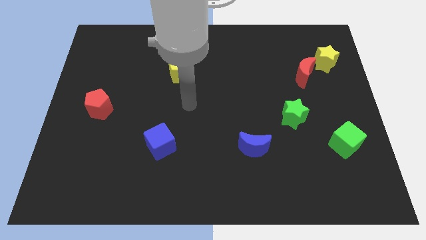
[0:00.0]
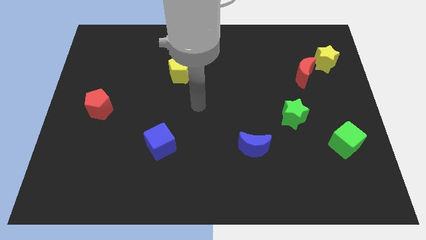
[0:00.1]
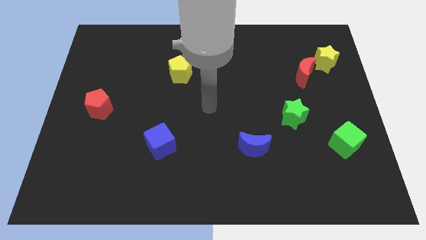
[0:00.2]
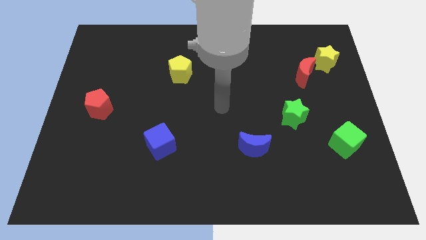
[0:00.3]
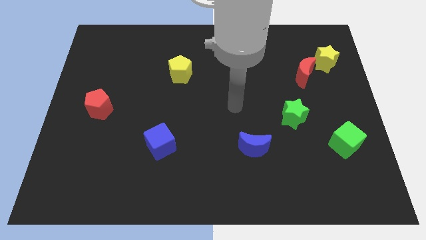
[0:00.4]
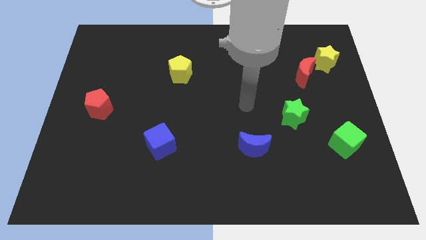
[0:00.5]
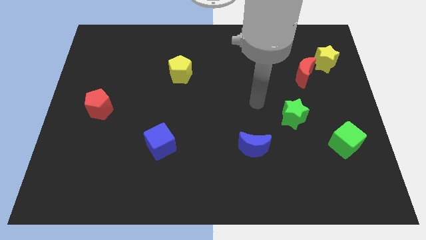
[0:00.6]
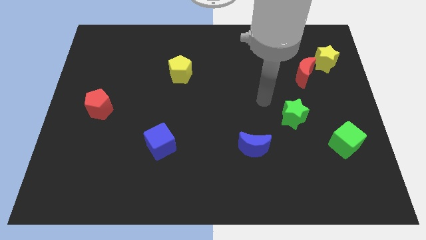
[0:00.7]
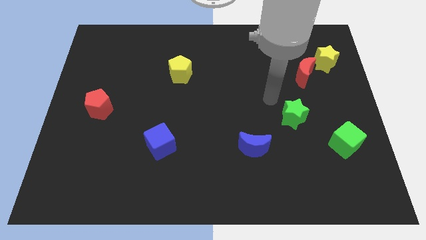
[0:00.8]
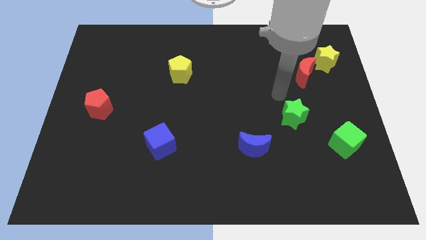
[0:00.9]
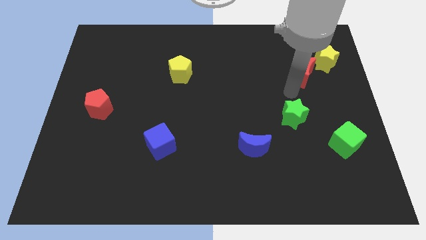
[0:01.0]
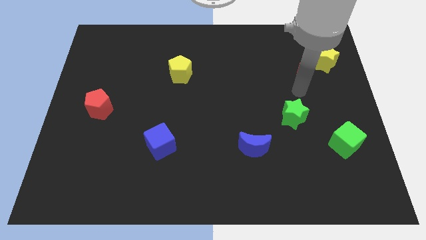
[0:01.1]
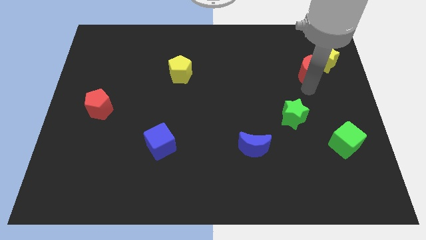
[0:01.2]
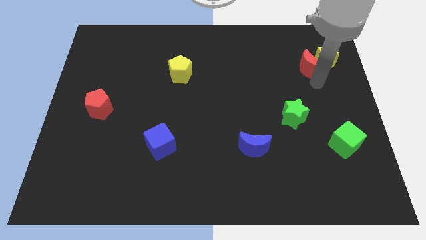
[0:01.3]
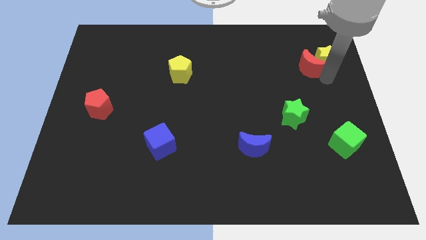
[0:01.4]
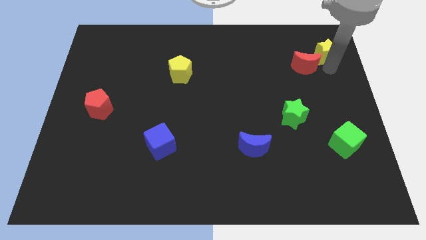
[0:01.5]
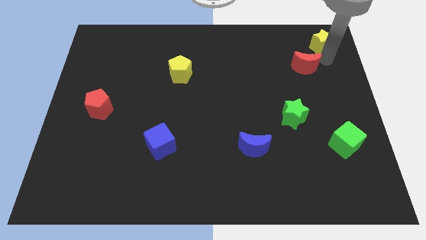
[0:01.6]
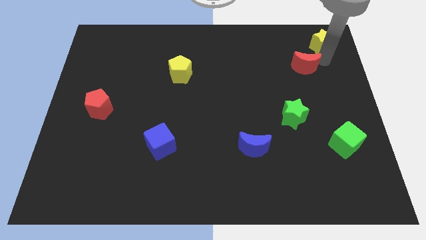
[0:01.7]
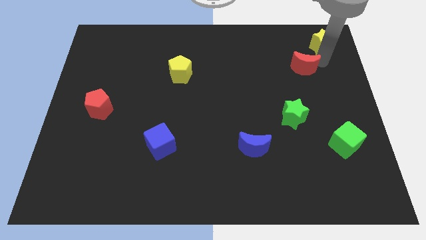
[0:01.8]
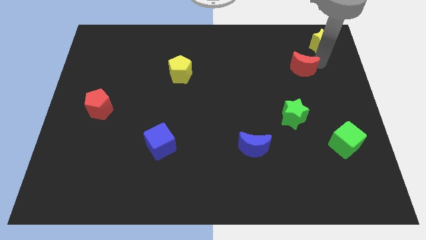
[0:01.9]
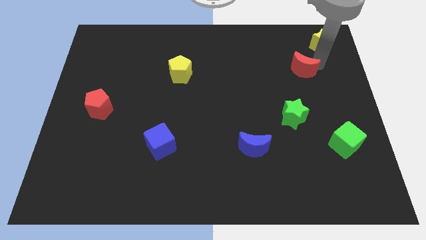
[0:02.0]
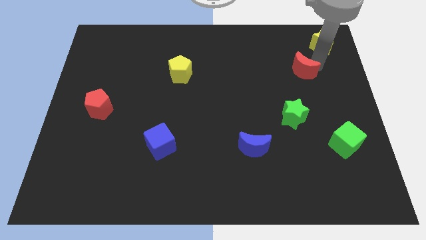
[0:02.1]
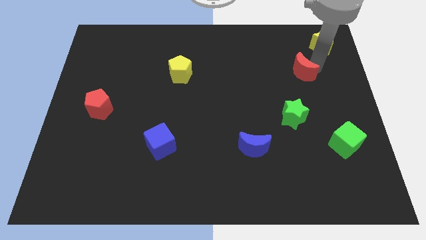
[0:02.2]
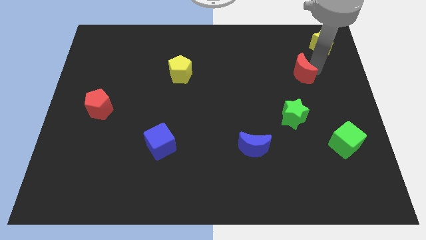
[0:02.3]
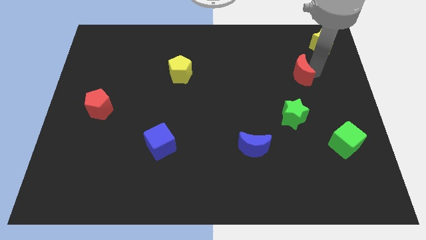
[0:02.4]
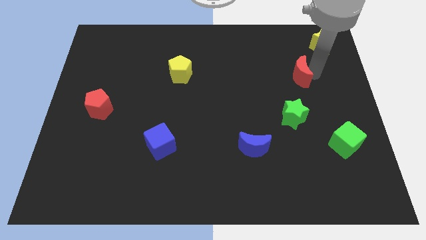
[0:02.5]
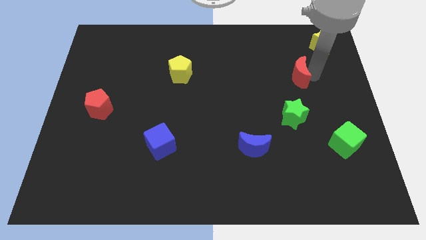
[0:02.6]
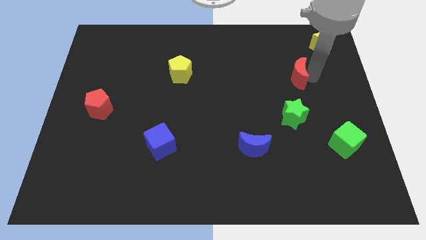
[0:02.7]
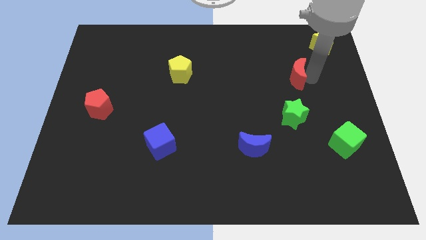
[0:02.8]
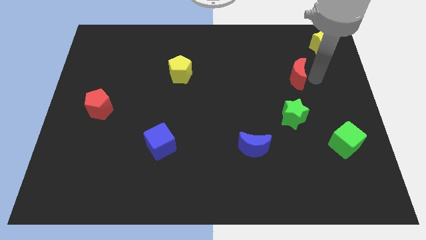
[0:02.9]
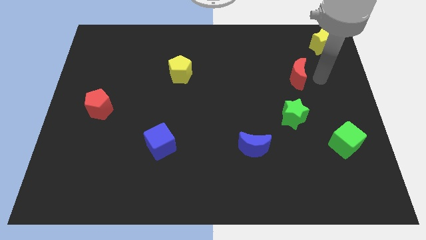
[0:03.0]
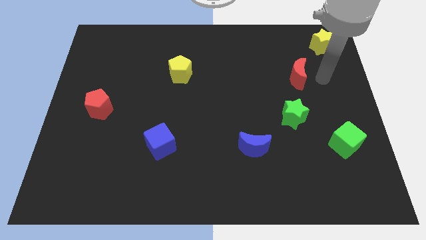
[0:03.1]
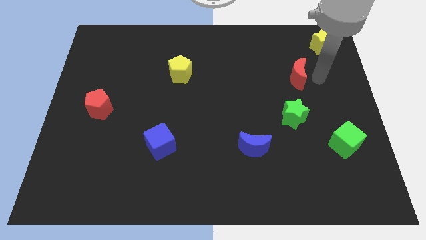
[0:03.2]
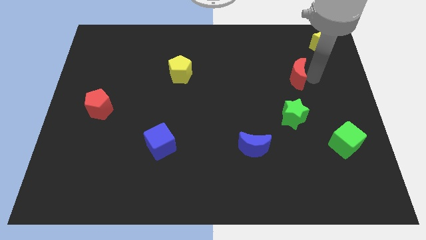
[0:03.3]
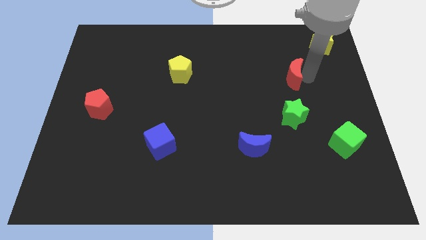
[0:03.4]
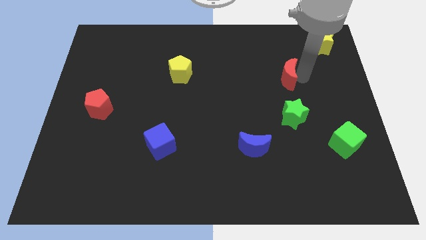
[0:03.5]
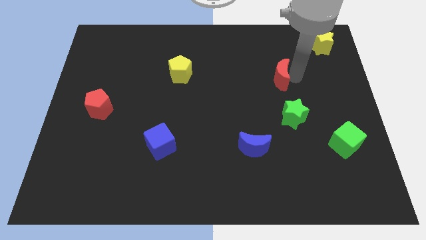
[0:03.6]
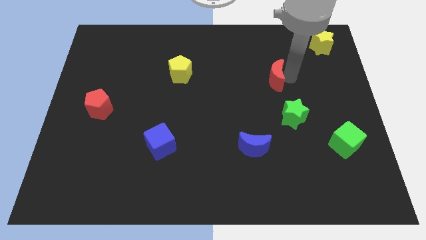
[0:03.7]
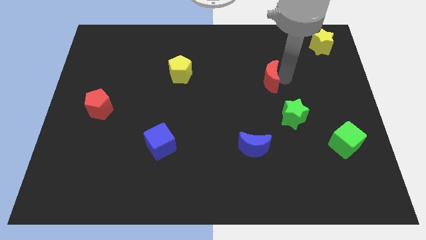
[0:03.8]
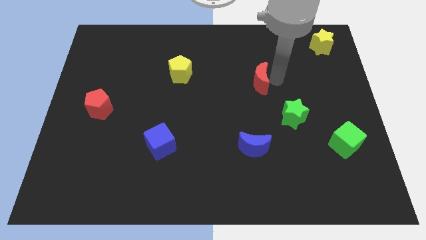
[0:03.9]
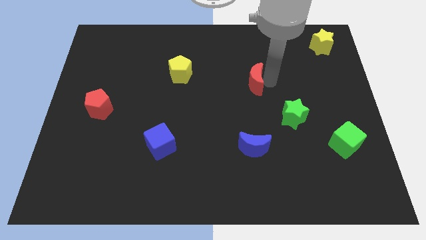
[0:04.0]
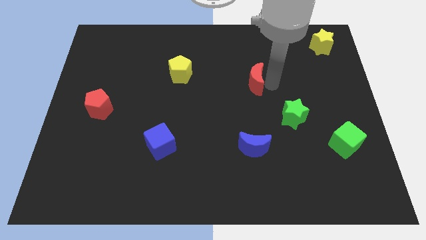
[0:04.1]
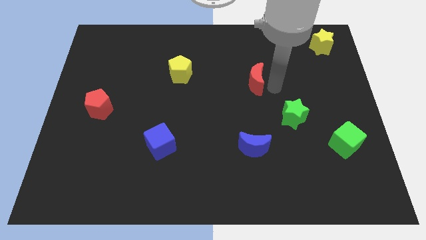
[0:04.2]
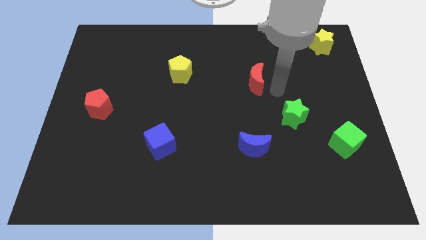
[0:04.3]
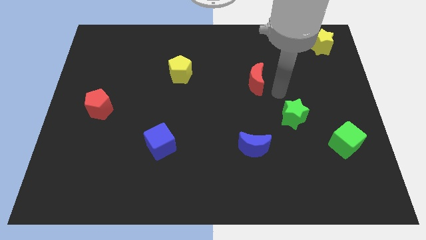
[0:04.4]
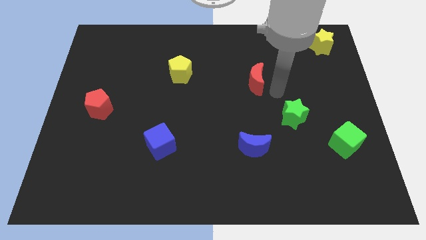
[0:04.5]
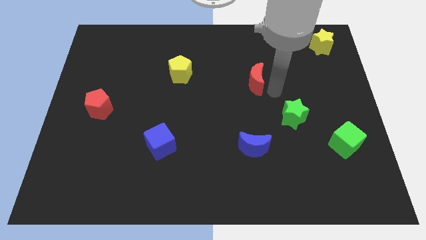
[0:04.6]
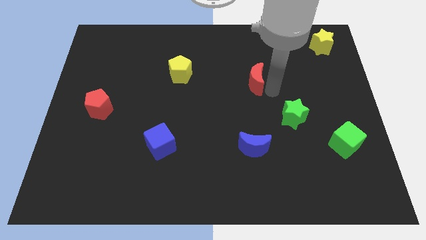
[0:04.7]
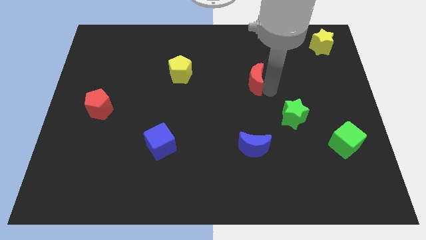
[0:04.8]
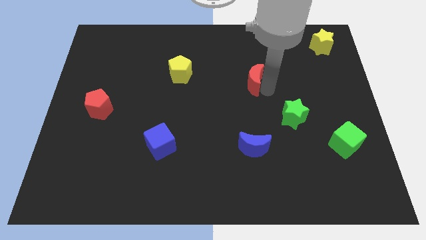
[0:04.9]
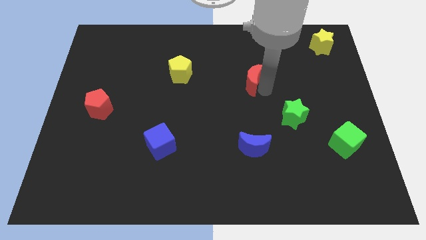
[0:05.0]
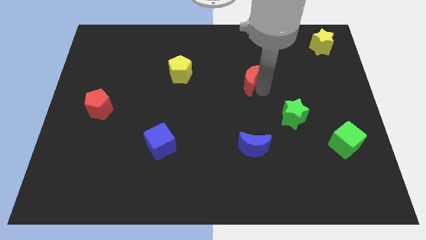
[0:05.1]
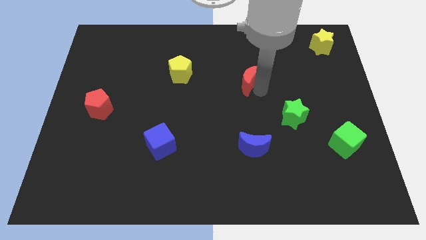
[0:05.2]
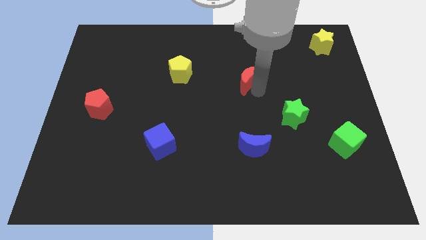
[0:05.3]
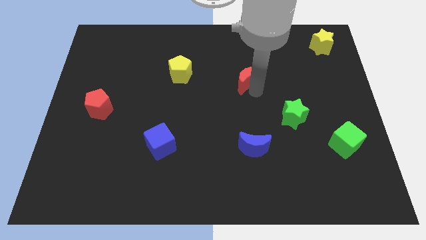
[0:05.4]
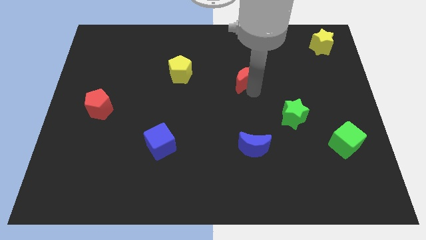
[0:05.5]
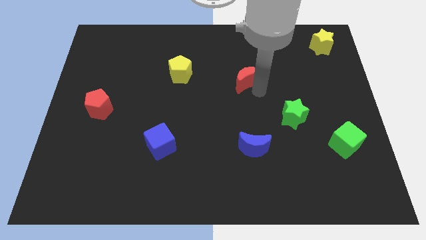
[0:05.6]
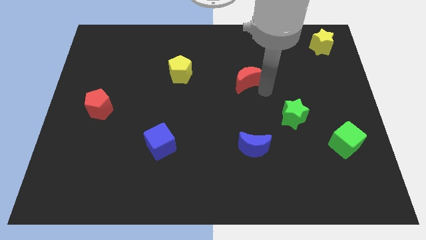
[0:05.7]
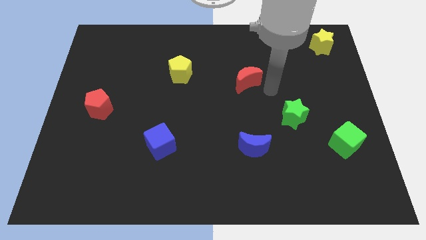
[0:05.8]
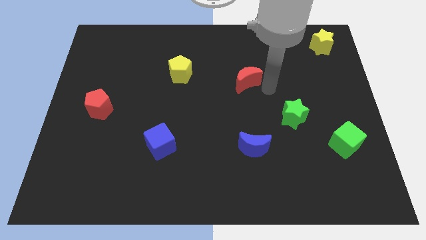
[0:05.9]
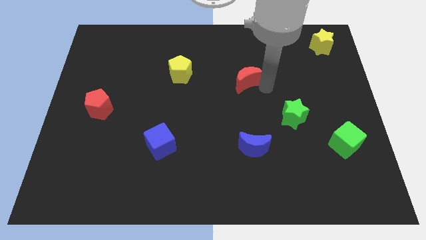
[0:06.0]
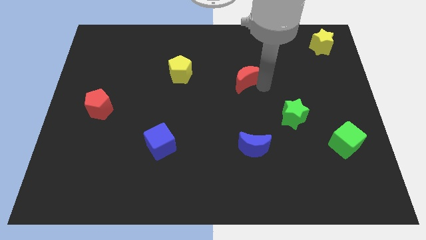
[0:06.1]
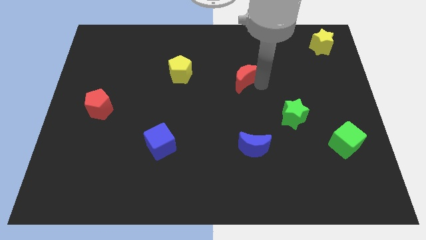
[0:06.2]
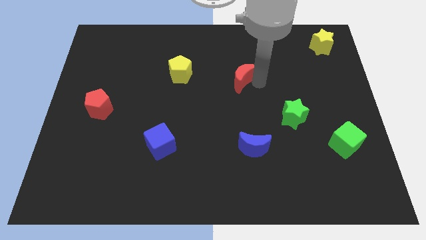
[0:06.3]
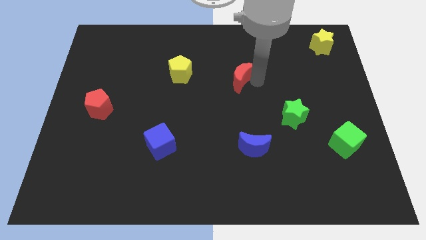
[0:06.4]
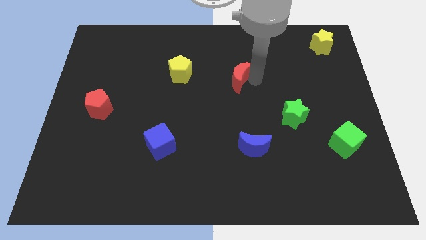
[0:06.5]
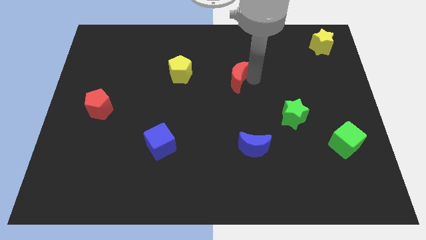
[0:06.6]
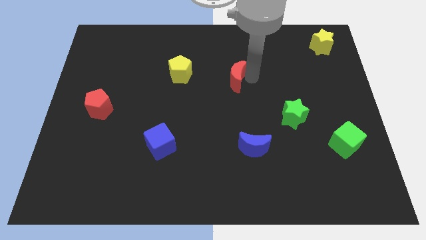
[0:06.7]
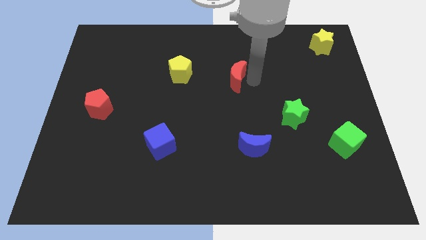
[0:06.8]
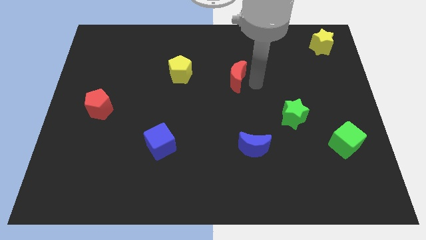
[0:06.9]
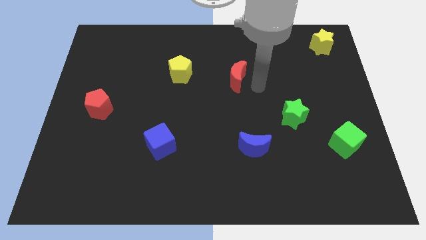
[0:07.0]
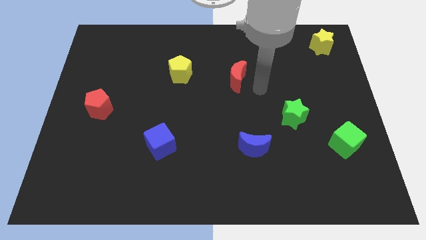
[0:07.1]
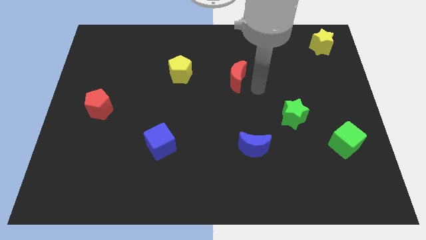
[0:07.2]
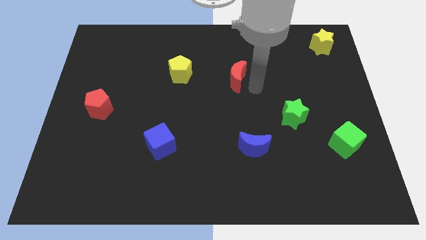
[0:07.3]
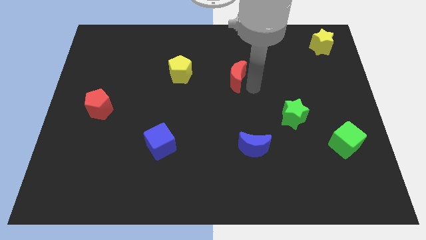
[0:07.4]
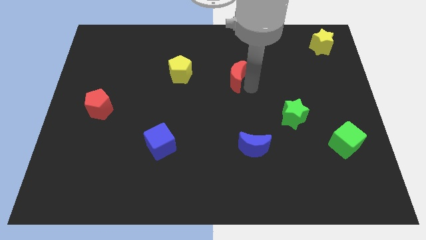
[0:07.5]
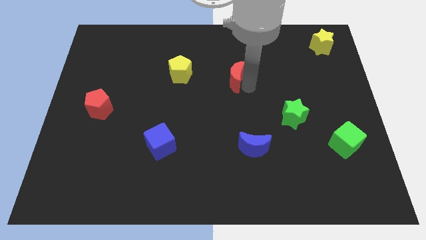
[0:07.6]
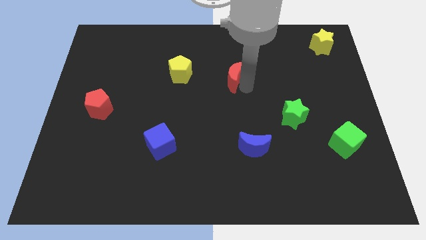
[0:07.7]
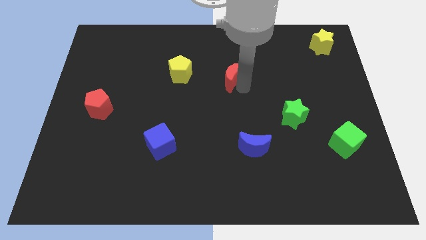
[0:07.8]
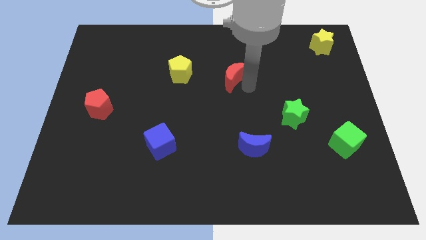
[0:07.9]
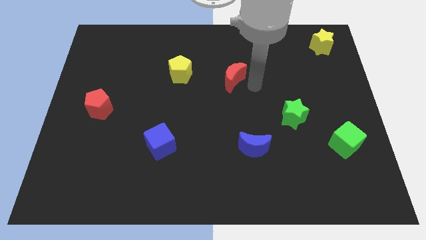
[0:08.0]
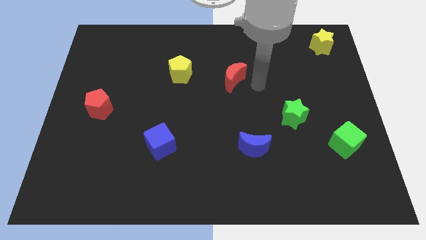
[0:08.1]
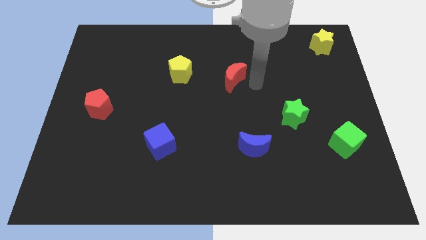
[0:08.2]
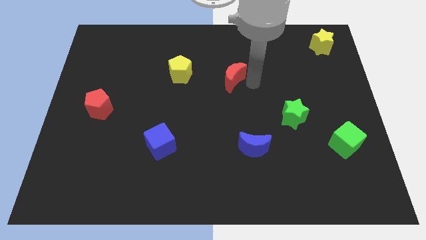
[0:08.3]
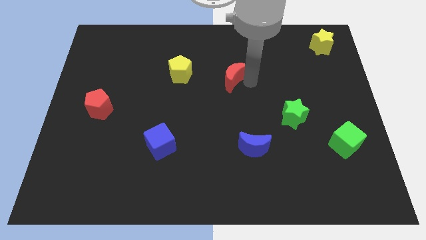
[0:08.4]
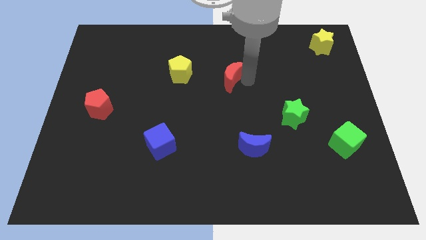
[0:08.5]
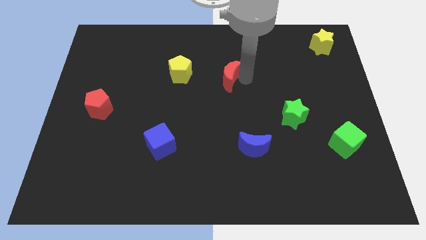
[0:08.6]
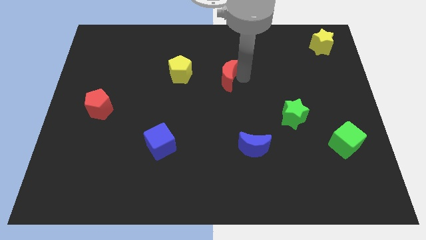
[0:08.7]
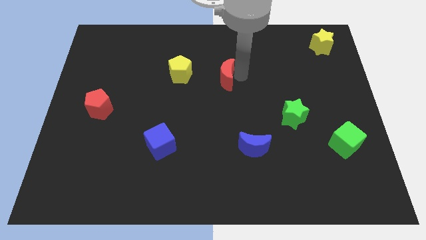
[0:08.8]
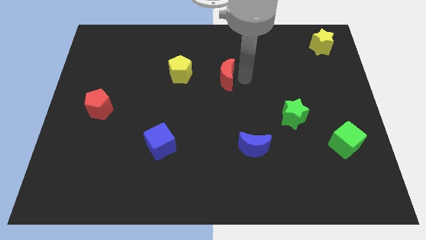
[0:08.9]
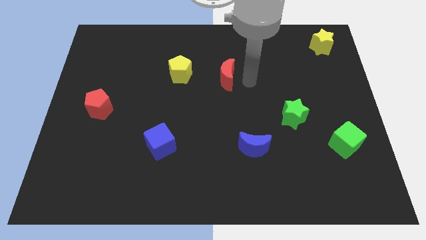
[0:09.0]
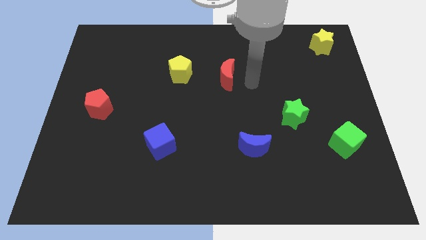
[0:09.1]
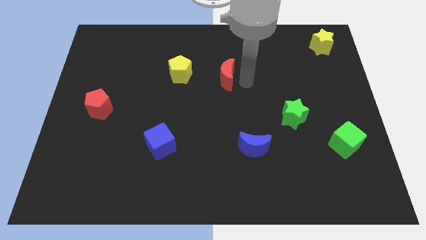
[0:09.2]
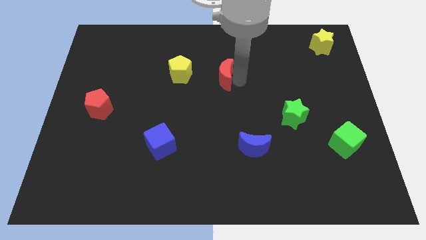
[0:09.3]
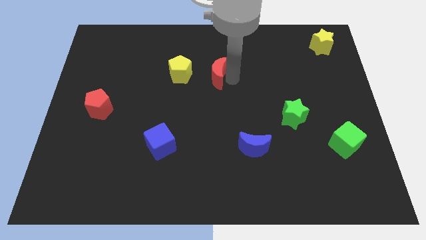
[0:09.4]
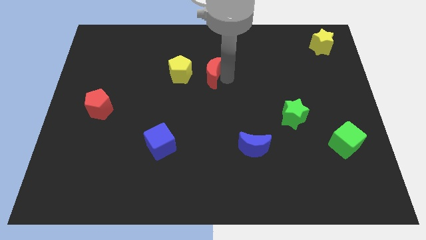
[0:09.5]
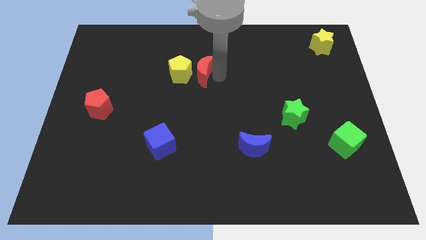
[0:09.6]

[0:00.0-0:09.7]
push the red moon close to the yellow pentagon
